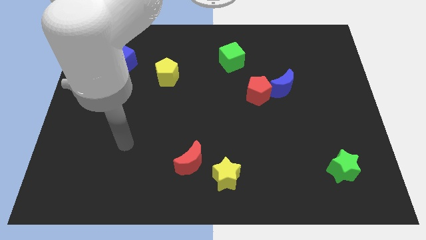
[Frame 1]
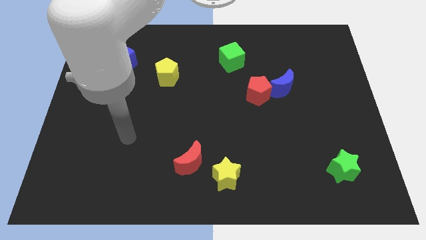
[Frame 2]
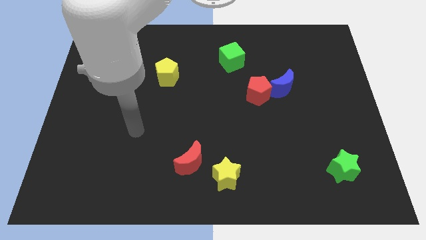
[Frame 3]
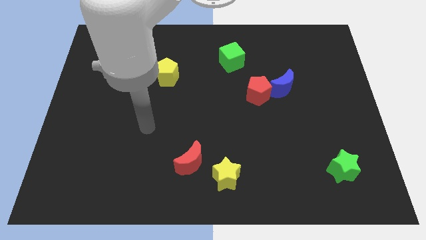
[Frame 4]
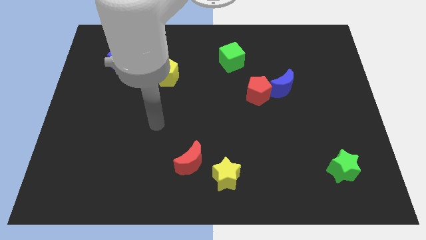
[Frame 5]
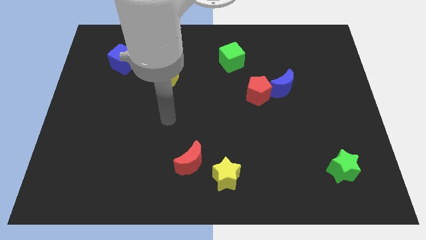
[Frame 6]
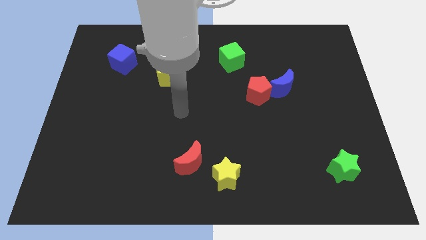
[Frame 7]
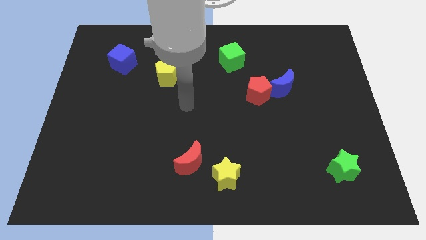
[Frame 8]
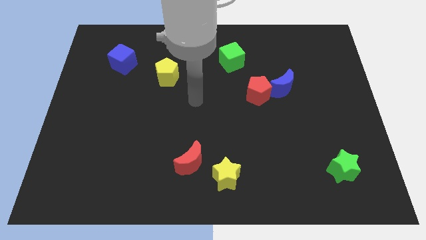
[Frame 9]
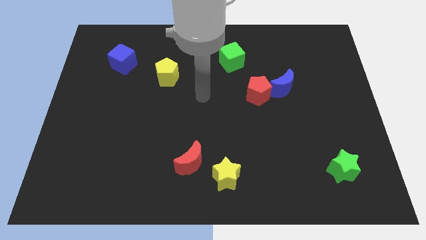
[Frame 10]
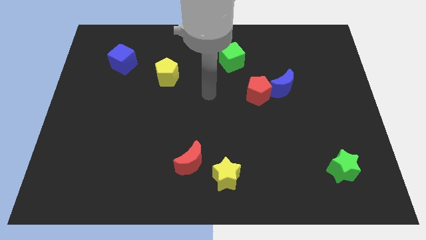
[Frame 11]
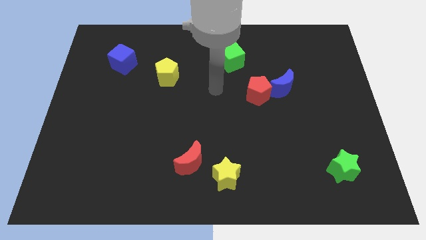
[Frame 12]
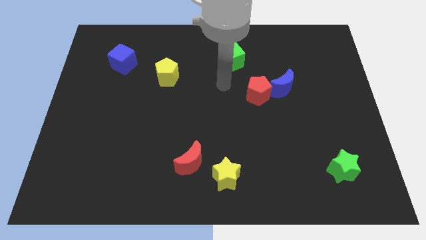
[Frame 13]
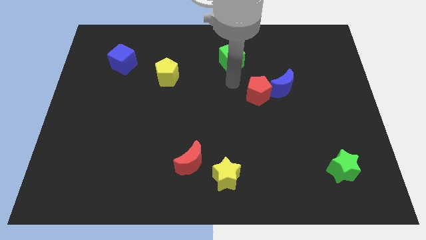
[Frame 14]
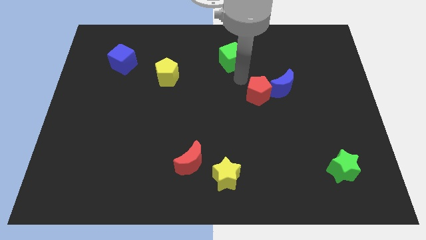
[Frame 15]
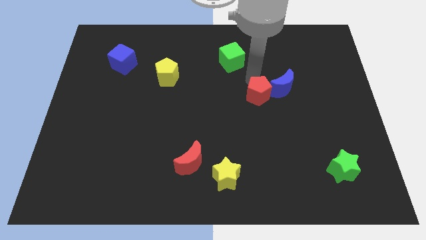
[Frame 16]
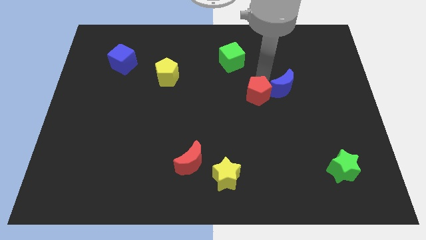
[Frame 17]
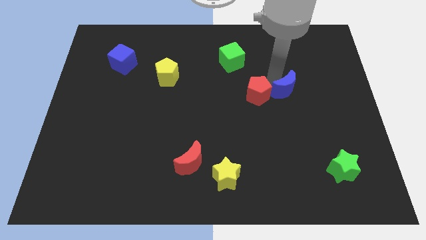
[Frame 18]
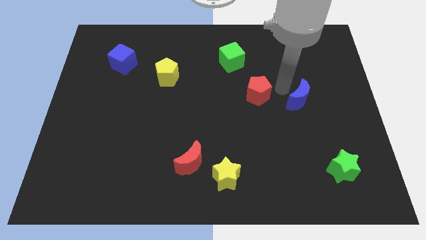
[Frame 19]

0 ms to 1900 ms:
move the red pentagon away from the blue moon

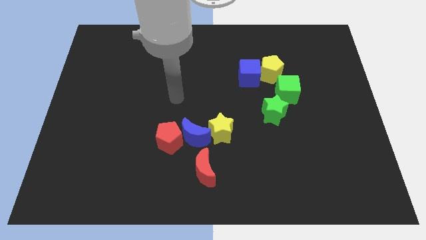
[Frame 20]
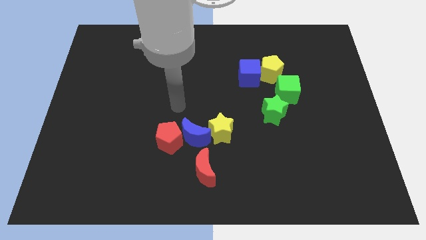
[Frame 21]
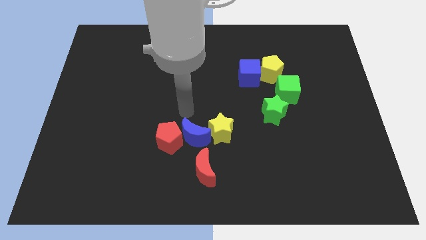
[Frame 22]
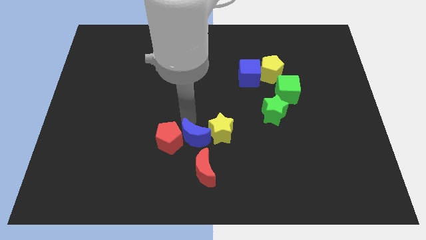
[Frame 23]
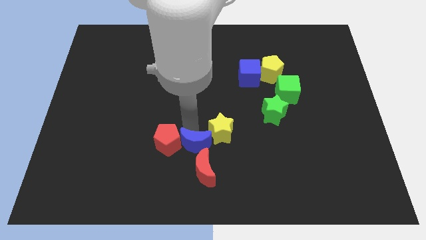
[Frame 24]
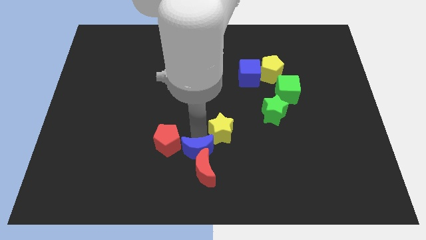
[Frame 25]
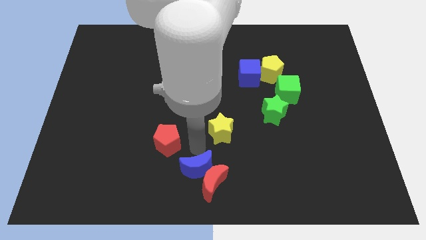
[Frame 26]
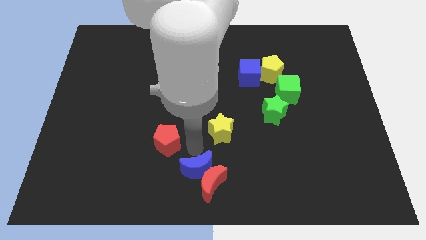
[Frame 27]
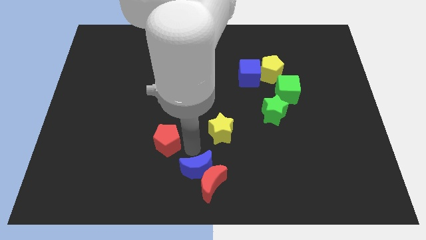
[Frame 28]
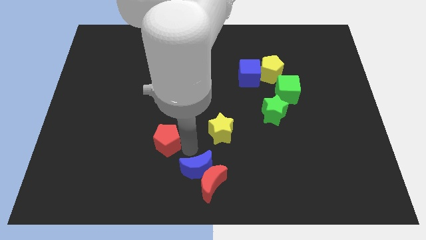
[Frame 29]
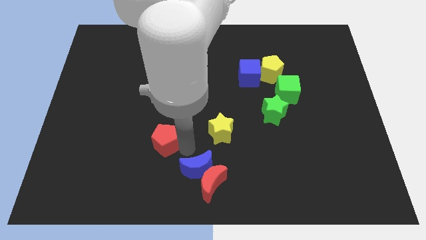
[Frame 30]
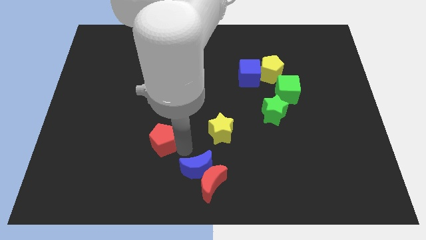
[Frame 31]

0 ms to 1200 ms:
separate the red pentagon from the blue moon

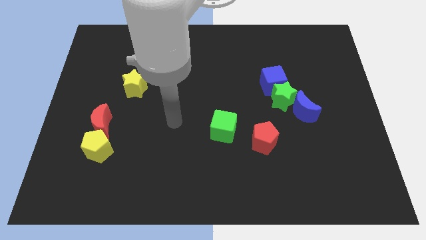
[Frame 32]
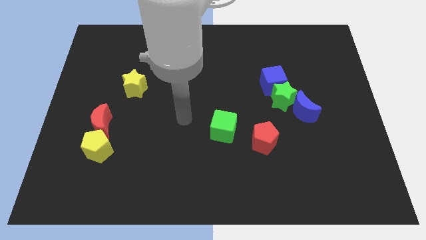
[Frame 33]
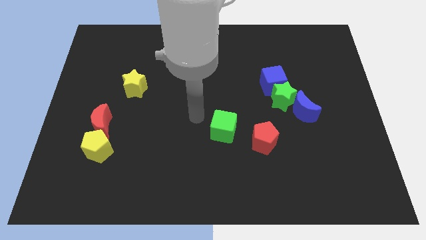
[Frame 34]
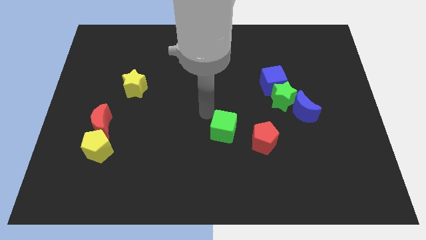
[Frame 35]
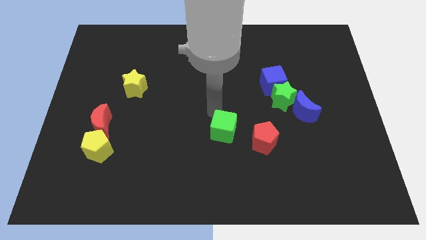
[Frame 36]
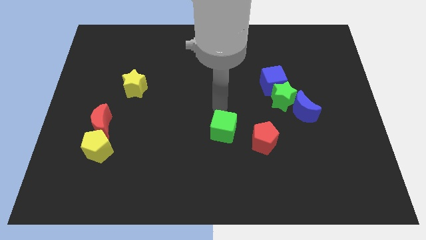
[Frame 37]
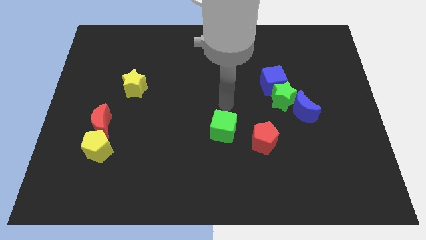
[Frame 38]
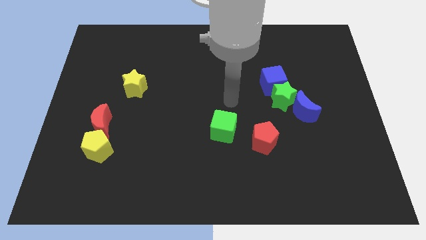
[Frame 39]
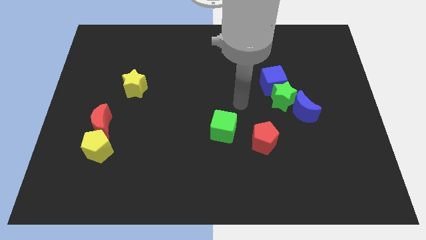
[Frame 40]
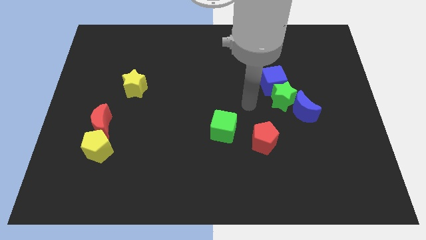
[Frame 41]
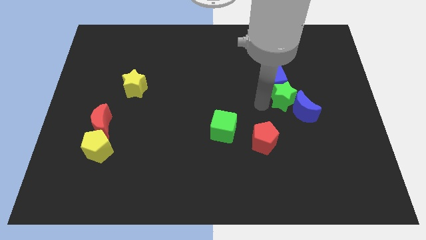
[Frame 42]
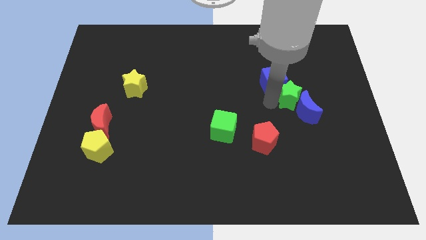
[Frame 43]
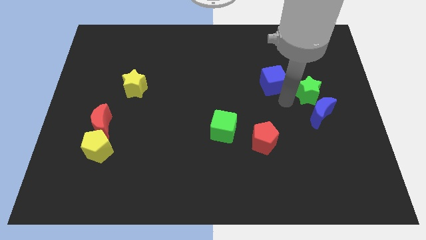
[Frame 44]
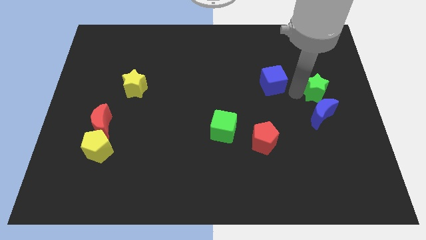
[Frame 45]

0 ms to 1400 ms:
pull the blue cube apart from the green star

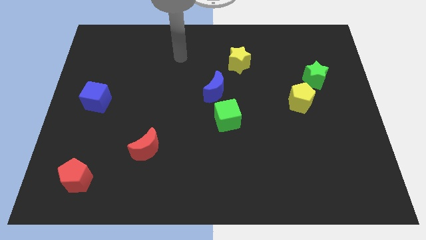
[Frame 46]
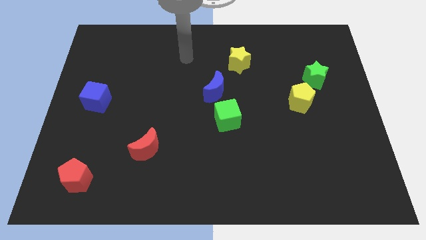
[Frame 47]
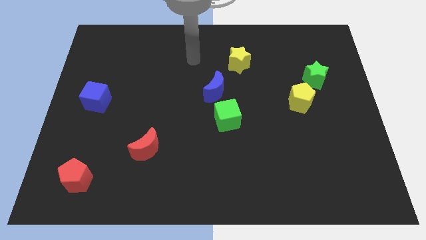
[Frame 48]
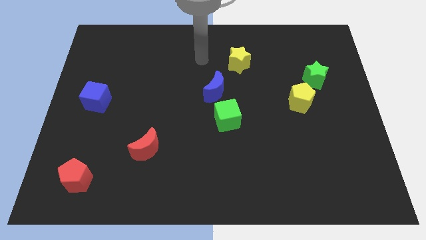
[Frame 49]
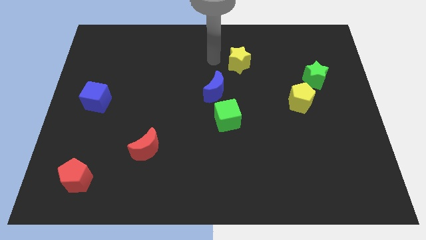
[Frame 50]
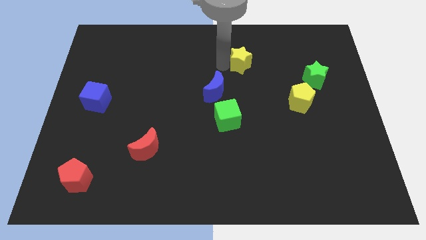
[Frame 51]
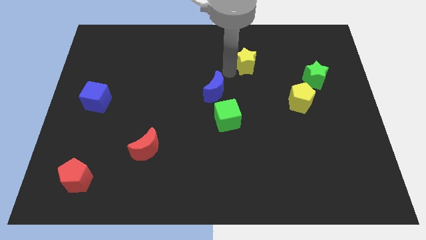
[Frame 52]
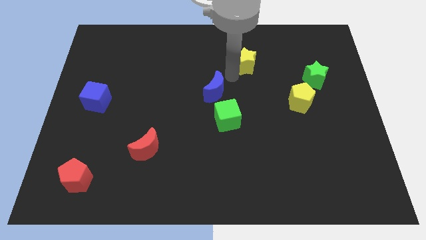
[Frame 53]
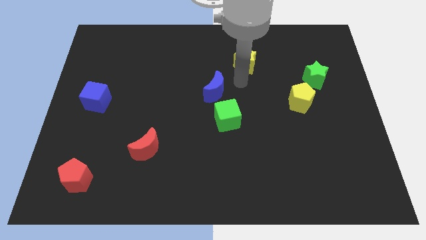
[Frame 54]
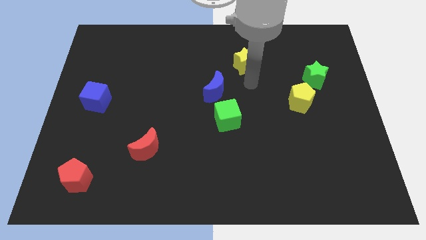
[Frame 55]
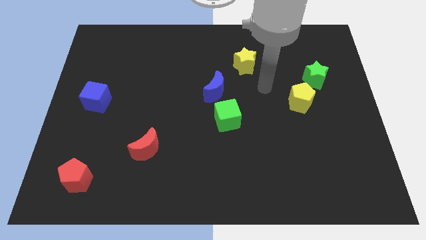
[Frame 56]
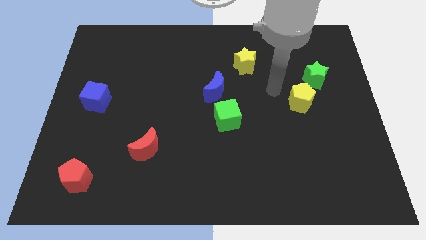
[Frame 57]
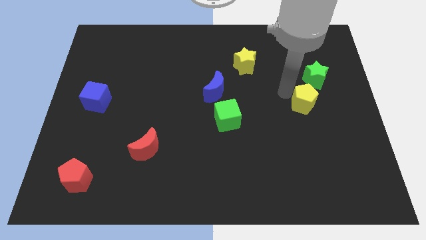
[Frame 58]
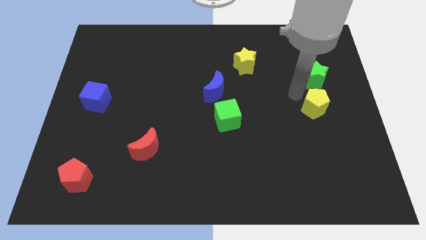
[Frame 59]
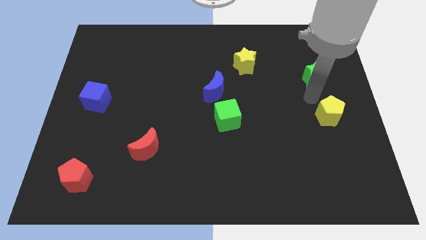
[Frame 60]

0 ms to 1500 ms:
pull the green star apart from the yellow pentagon

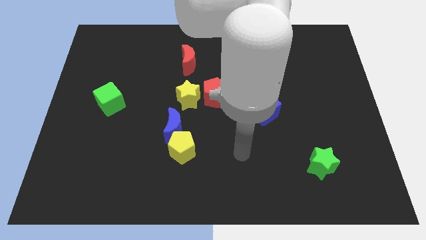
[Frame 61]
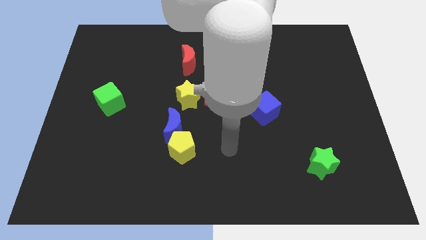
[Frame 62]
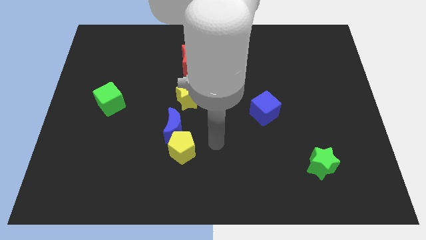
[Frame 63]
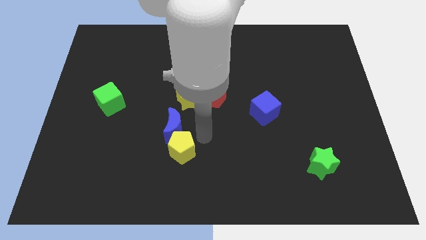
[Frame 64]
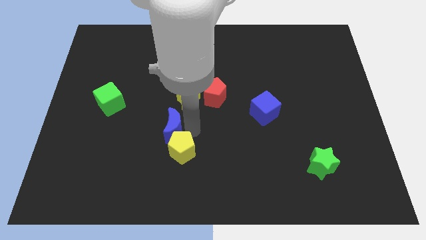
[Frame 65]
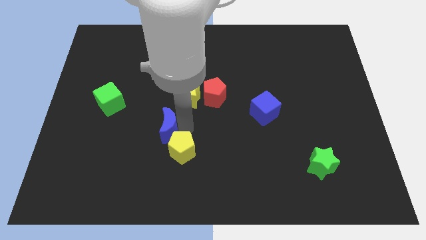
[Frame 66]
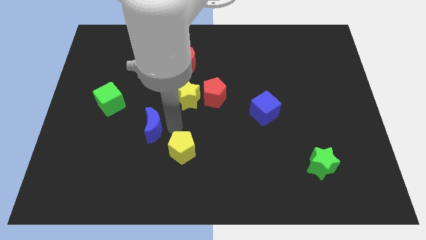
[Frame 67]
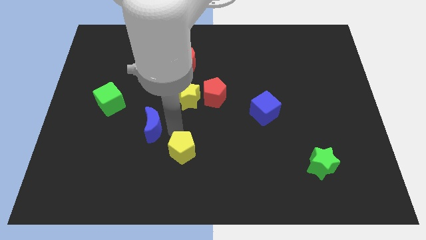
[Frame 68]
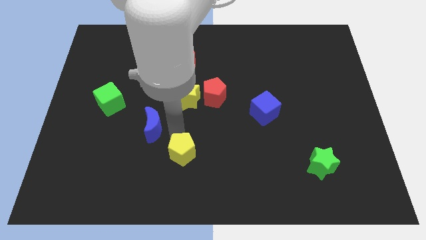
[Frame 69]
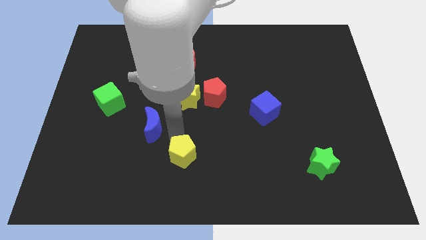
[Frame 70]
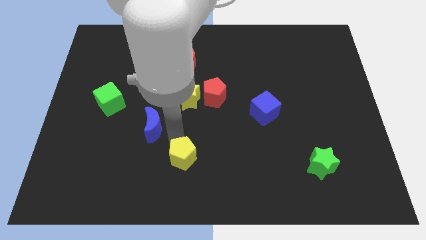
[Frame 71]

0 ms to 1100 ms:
separate the yellow pentagon from the blue moon

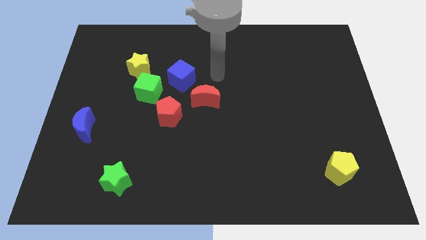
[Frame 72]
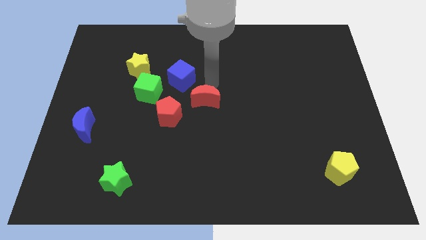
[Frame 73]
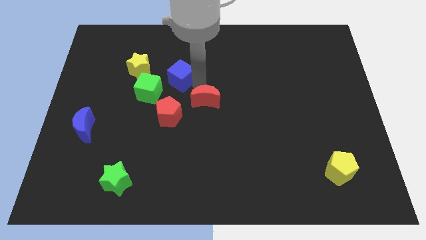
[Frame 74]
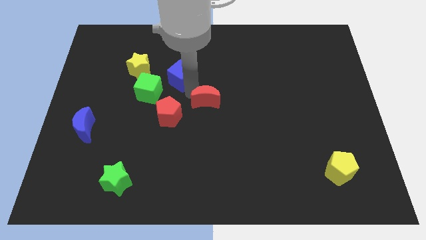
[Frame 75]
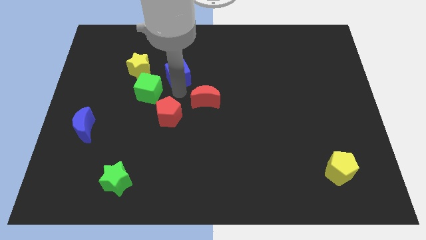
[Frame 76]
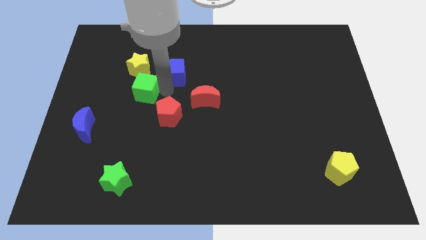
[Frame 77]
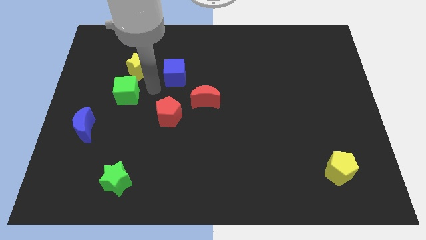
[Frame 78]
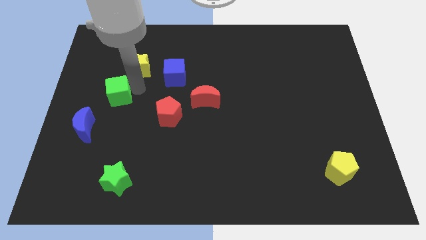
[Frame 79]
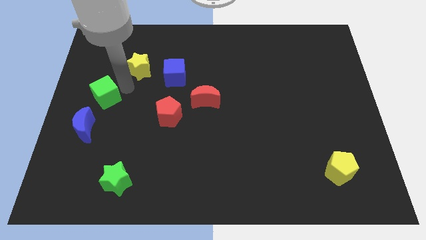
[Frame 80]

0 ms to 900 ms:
move the yellow star away from the green cube

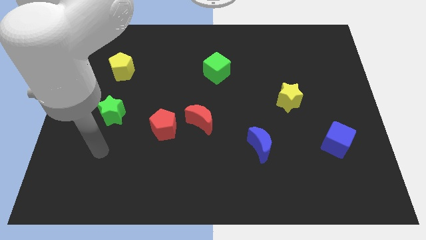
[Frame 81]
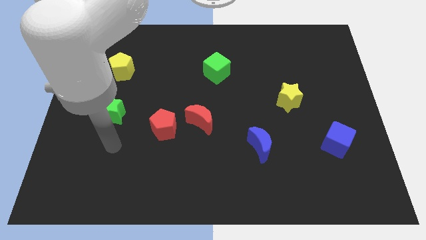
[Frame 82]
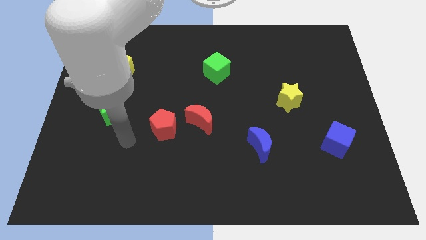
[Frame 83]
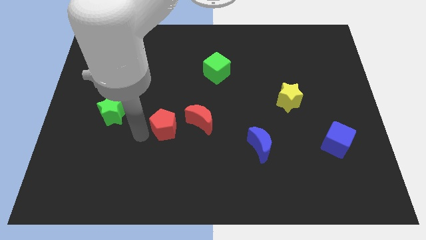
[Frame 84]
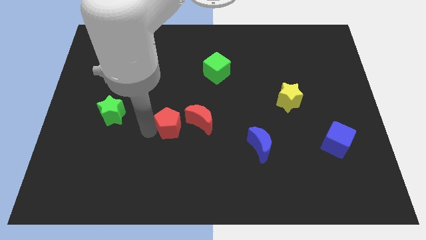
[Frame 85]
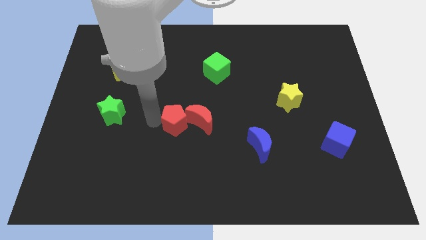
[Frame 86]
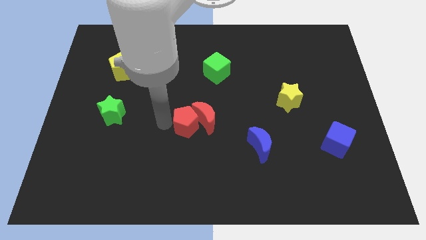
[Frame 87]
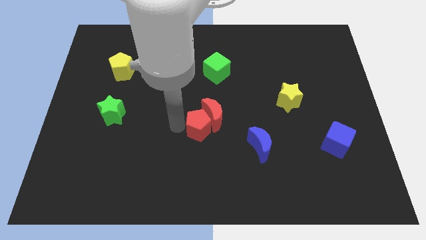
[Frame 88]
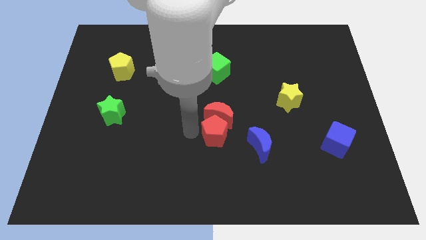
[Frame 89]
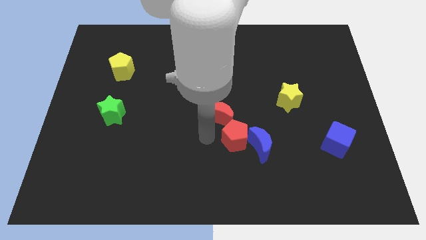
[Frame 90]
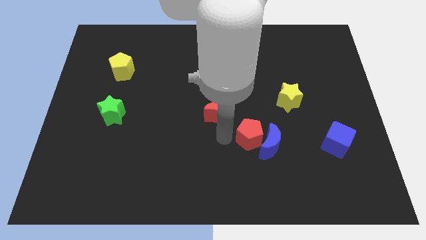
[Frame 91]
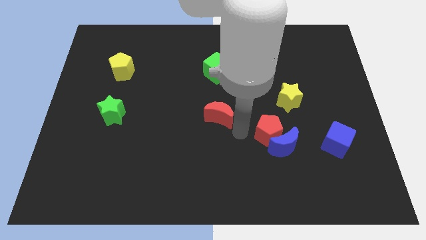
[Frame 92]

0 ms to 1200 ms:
pull the red moon apart from the red pentagon

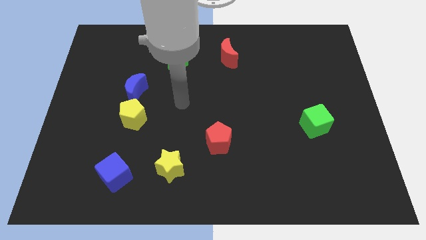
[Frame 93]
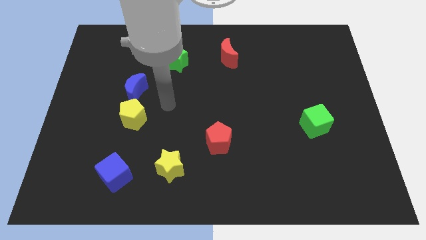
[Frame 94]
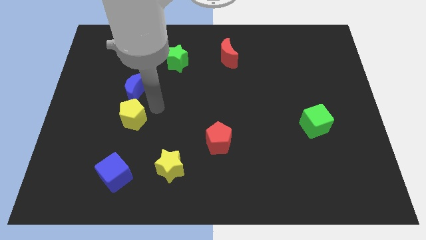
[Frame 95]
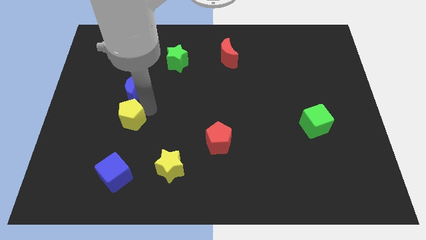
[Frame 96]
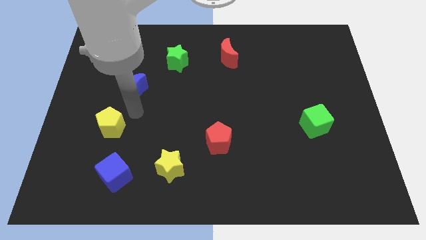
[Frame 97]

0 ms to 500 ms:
separate the blue moon from the yellow pentagon
